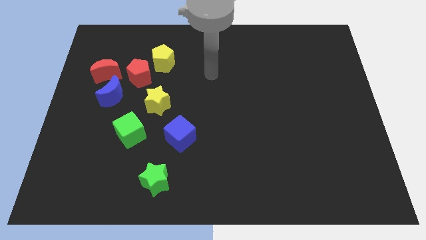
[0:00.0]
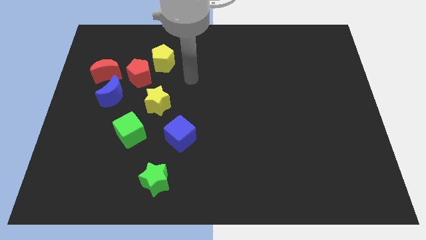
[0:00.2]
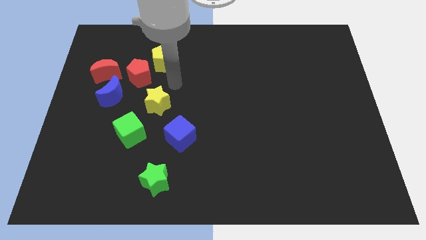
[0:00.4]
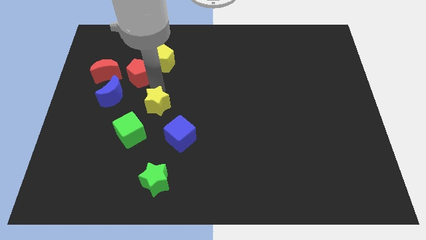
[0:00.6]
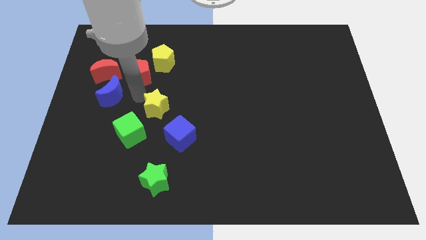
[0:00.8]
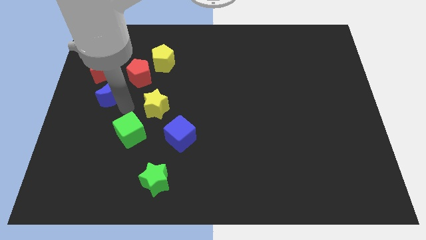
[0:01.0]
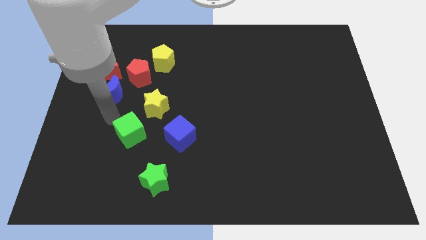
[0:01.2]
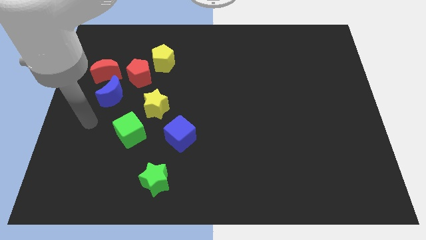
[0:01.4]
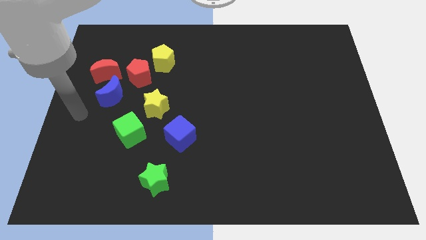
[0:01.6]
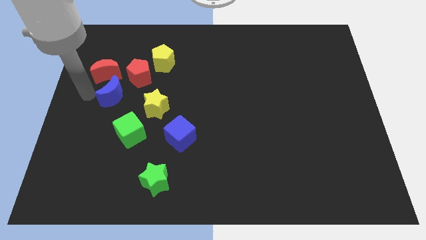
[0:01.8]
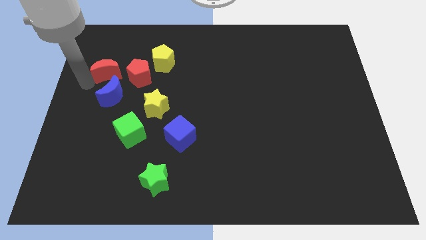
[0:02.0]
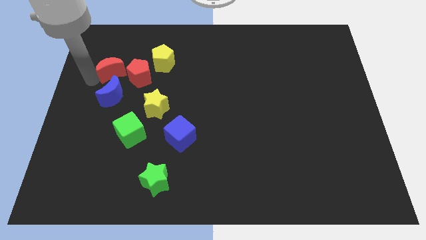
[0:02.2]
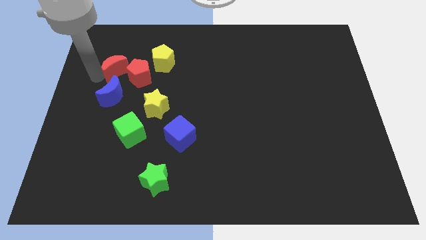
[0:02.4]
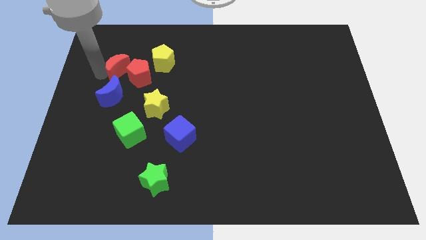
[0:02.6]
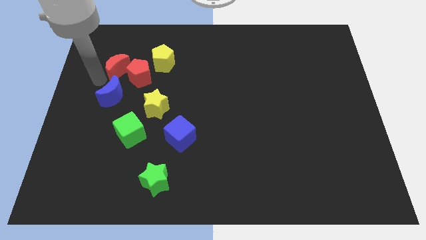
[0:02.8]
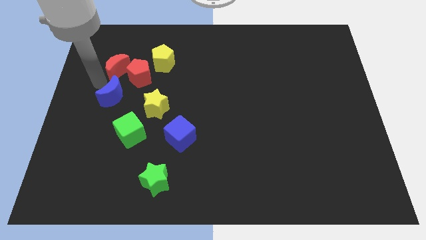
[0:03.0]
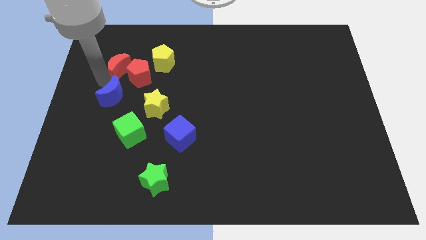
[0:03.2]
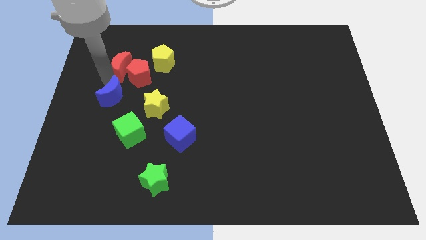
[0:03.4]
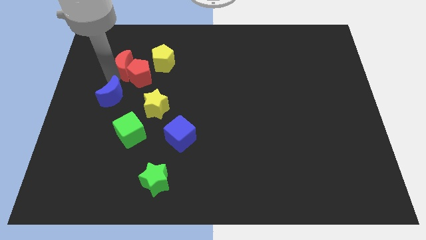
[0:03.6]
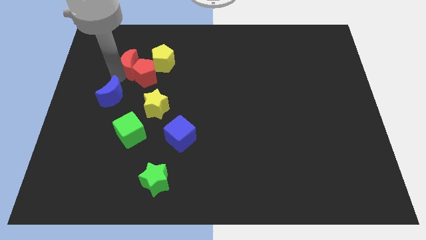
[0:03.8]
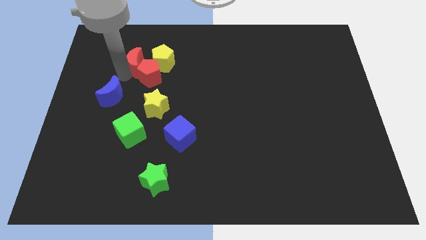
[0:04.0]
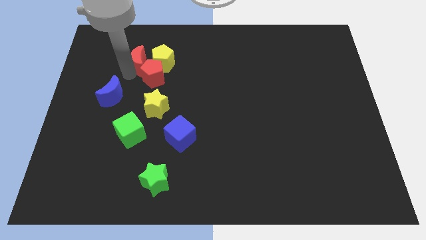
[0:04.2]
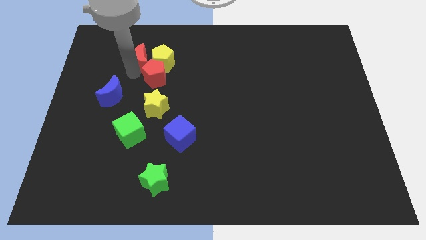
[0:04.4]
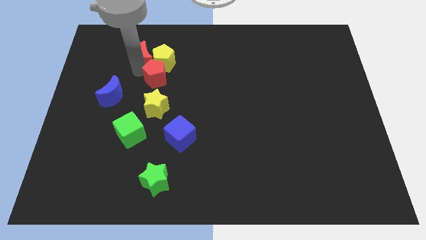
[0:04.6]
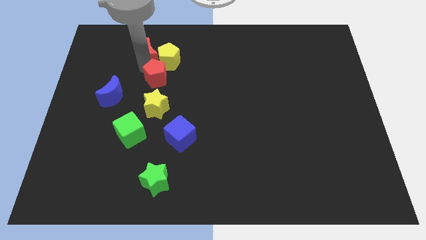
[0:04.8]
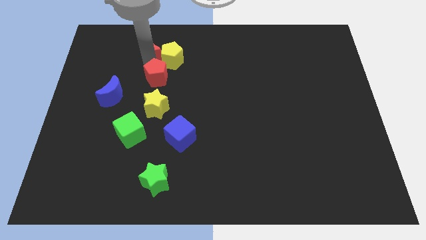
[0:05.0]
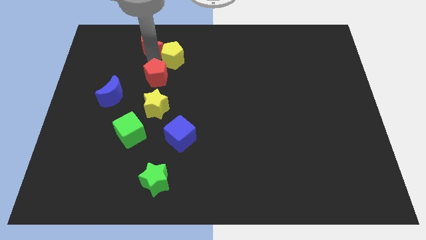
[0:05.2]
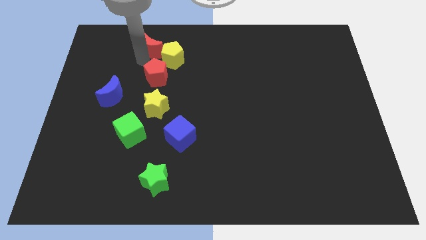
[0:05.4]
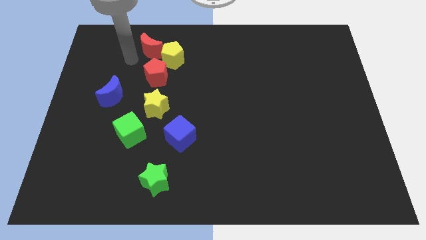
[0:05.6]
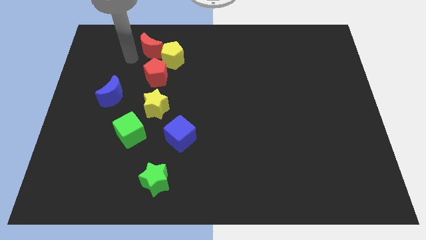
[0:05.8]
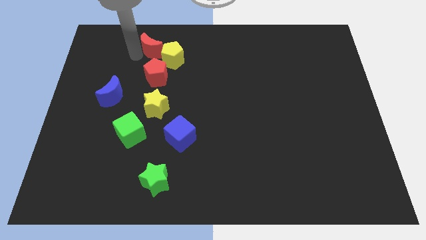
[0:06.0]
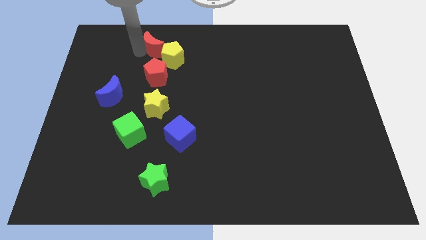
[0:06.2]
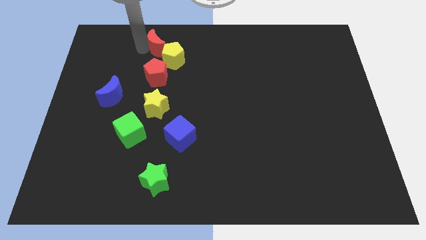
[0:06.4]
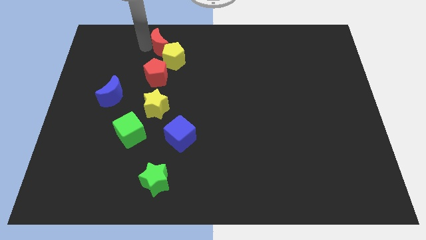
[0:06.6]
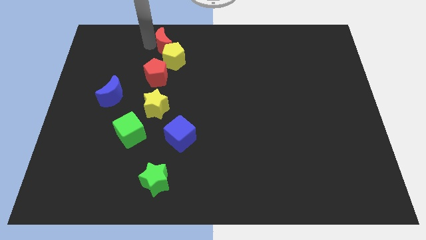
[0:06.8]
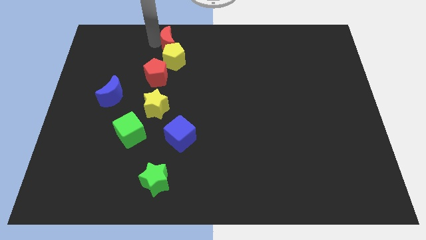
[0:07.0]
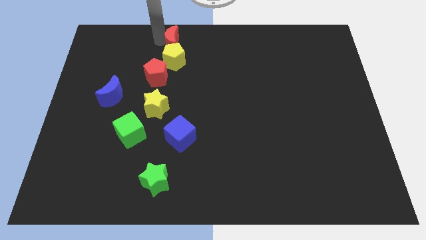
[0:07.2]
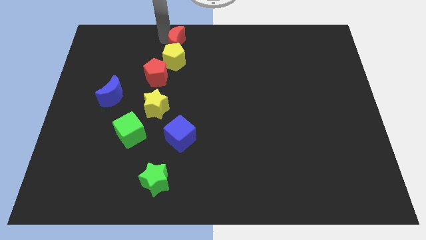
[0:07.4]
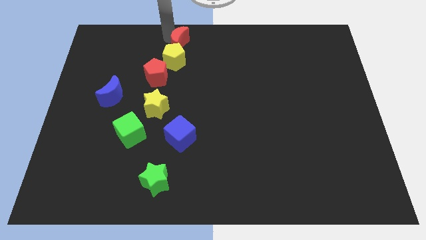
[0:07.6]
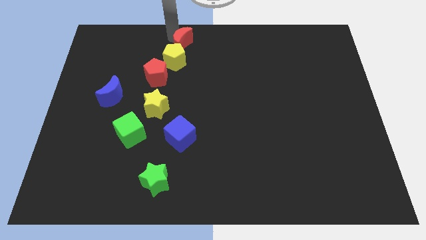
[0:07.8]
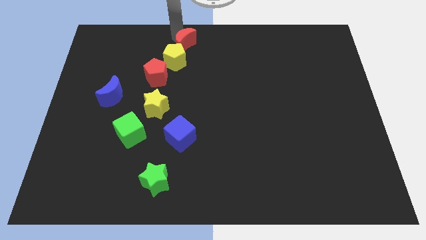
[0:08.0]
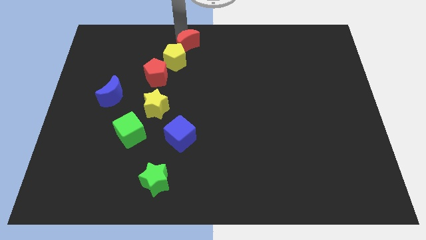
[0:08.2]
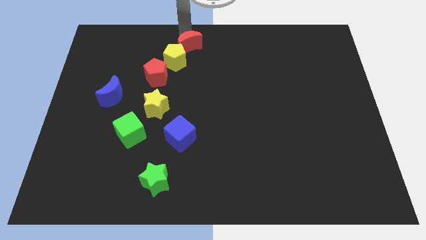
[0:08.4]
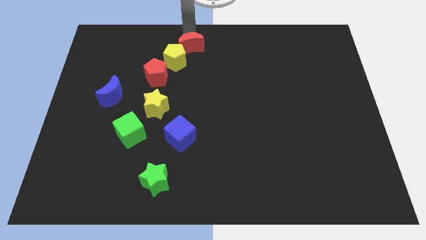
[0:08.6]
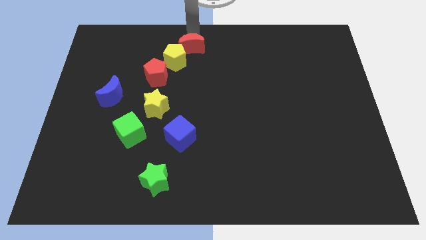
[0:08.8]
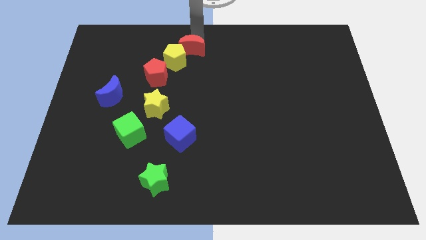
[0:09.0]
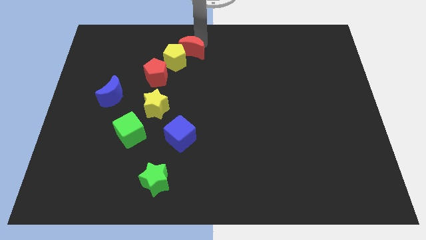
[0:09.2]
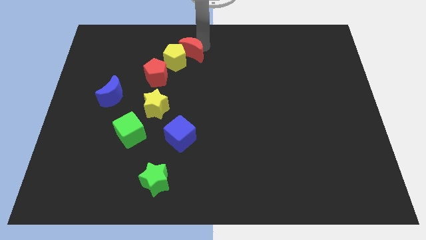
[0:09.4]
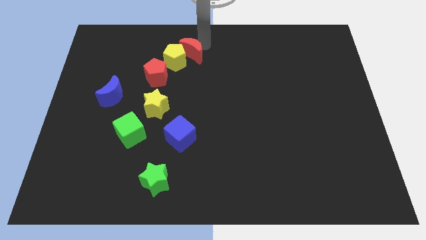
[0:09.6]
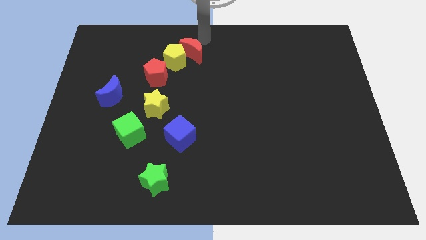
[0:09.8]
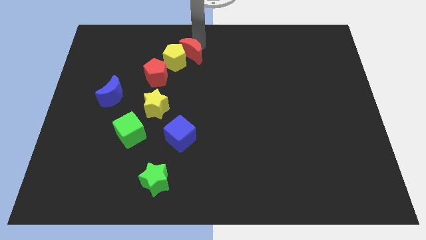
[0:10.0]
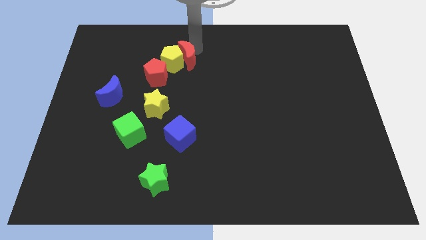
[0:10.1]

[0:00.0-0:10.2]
move the red moon to the bottom right of the yellow pentagon

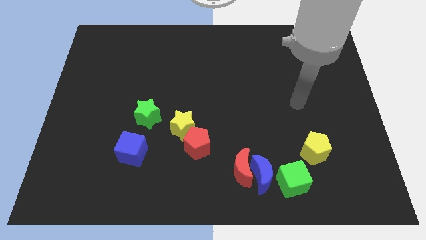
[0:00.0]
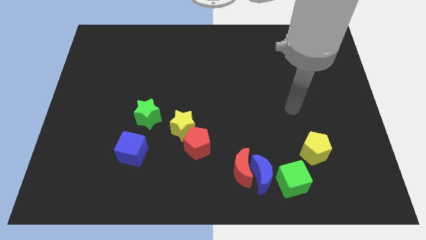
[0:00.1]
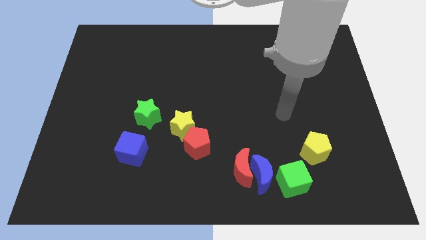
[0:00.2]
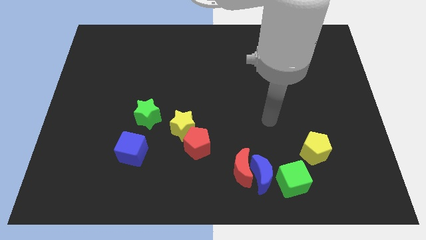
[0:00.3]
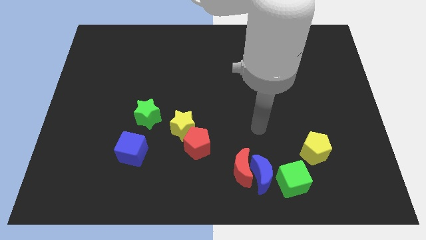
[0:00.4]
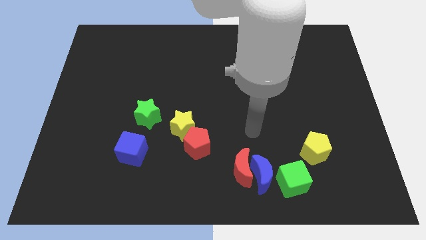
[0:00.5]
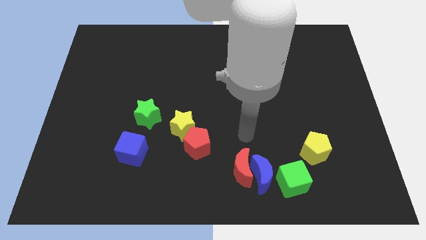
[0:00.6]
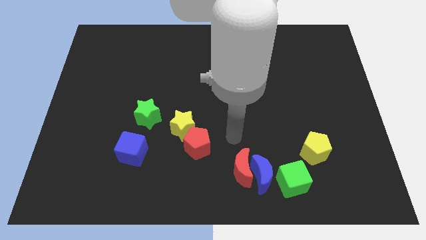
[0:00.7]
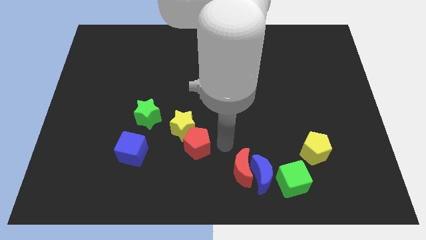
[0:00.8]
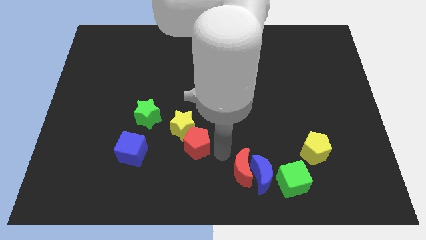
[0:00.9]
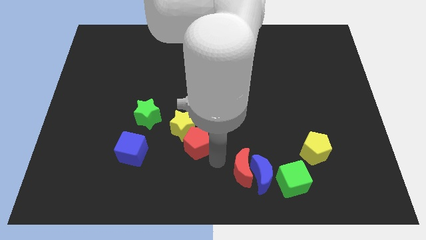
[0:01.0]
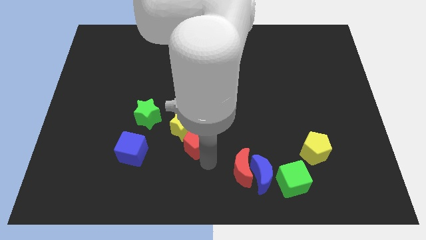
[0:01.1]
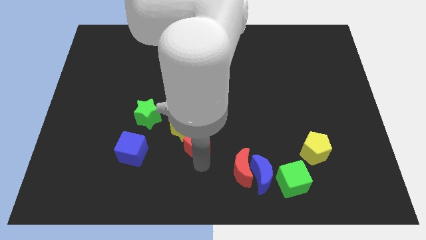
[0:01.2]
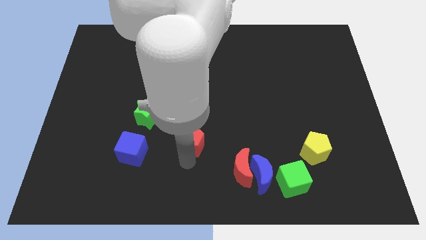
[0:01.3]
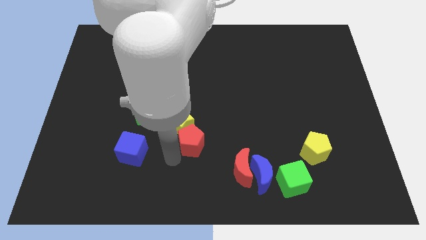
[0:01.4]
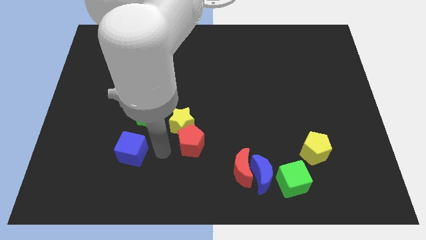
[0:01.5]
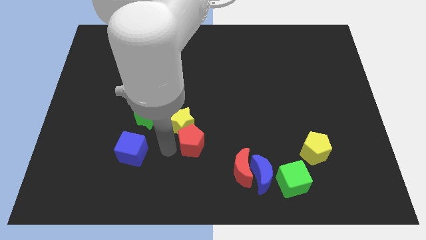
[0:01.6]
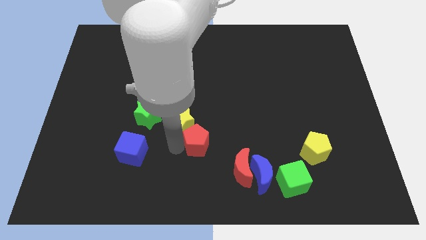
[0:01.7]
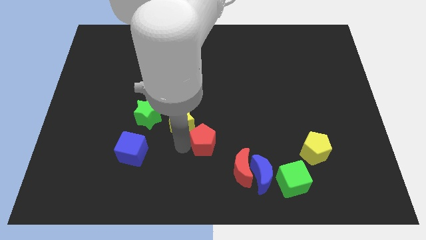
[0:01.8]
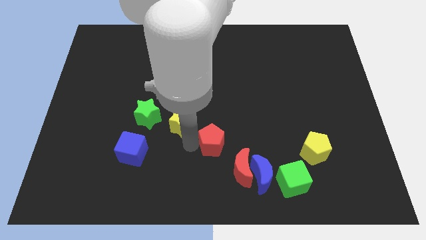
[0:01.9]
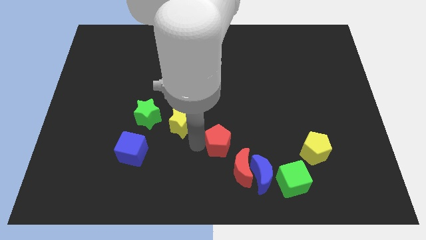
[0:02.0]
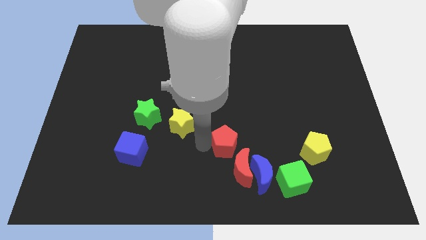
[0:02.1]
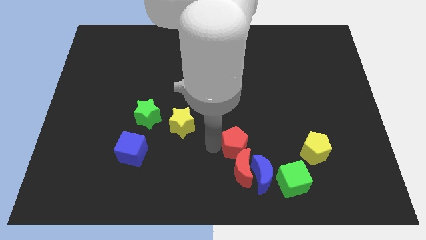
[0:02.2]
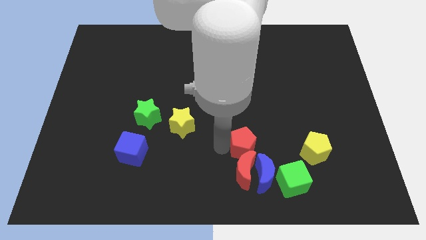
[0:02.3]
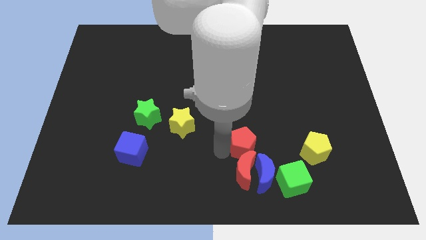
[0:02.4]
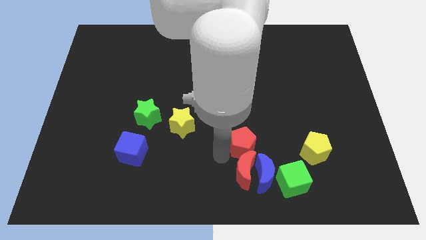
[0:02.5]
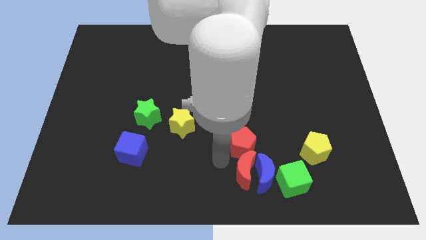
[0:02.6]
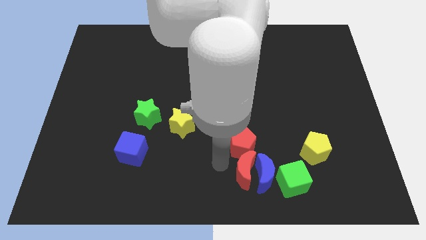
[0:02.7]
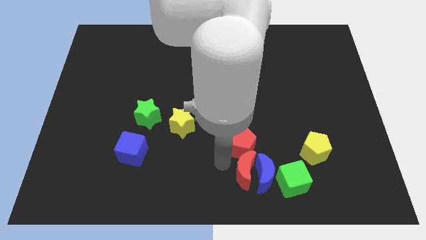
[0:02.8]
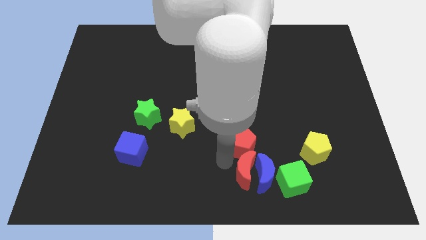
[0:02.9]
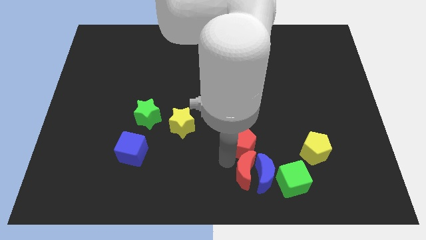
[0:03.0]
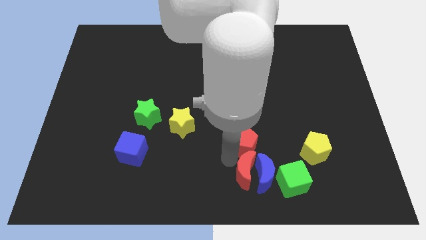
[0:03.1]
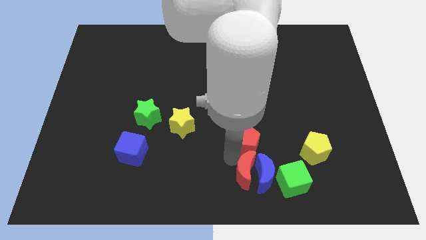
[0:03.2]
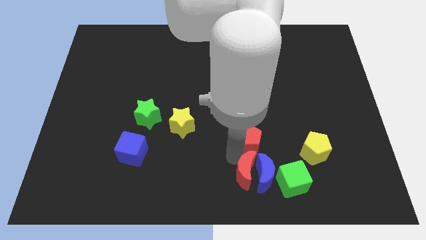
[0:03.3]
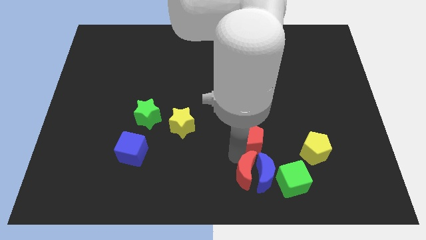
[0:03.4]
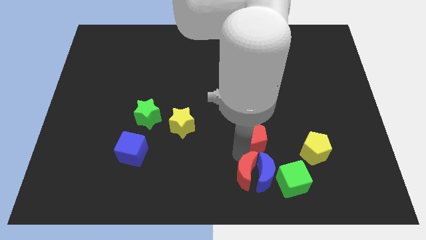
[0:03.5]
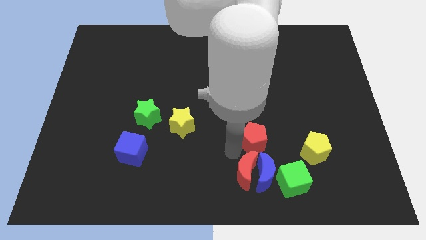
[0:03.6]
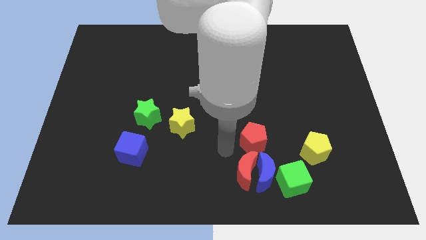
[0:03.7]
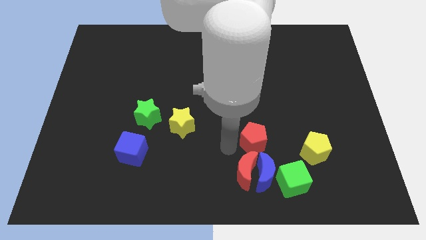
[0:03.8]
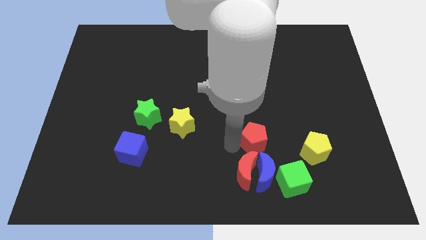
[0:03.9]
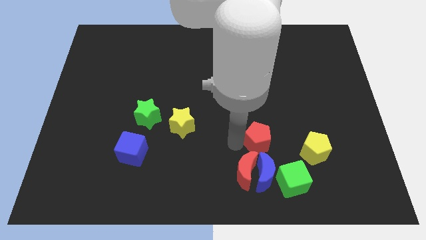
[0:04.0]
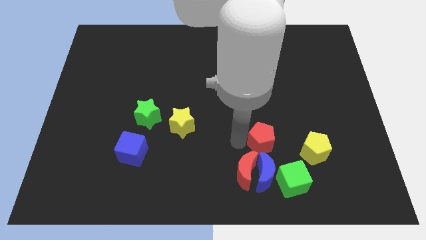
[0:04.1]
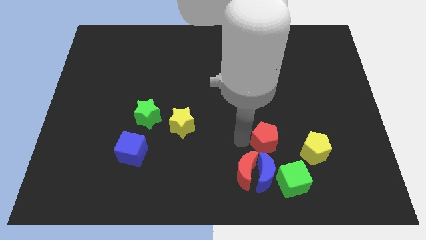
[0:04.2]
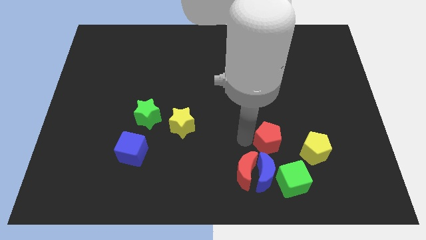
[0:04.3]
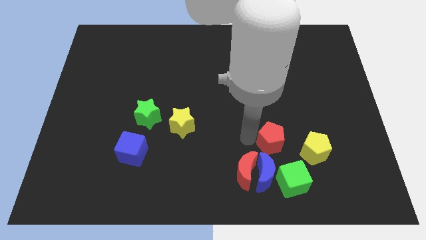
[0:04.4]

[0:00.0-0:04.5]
push the red pentagon to the top left side of the yellow pentagon
